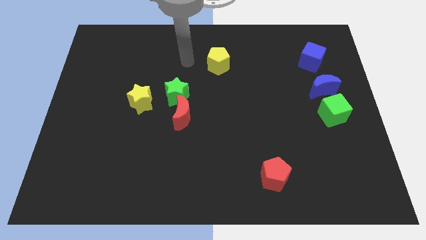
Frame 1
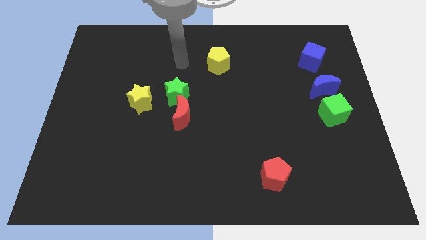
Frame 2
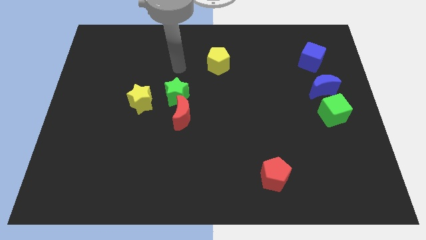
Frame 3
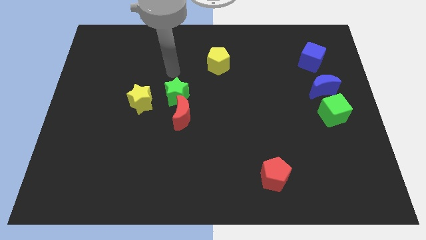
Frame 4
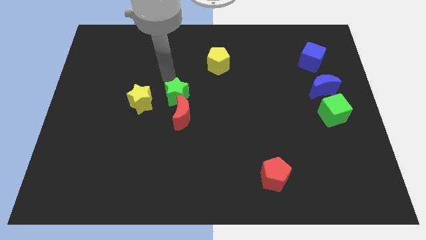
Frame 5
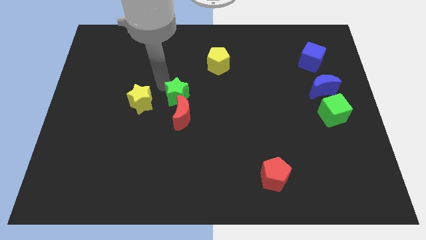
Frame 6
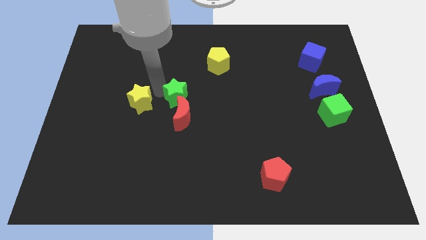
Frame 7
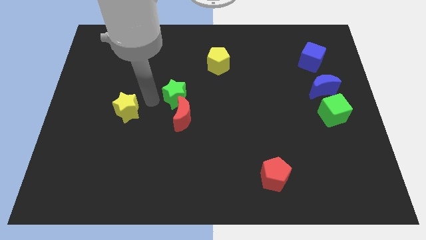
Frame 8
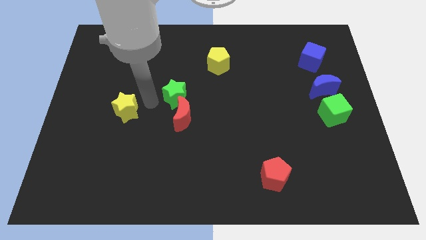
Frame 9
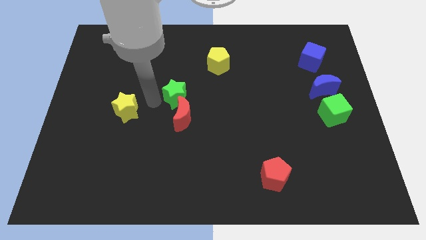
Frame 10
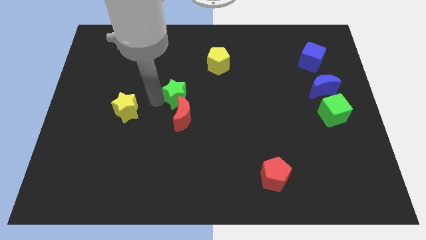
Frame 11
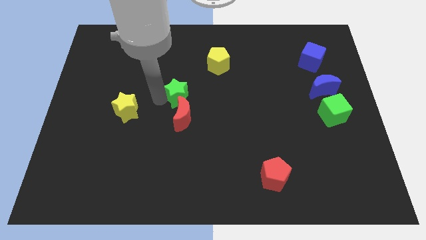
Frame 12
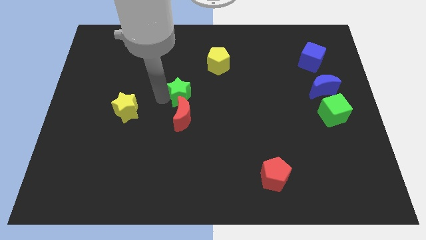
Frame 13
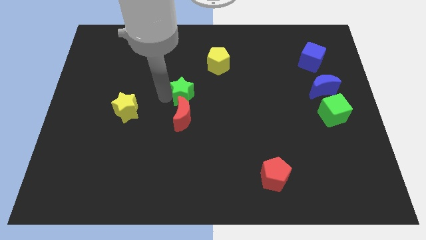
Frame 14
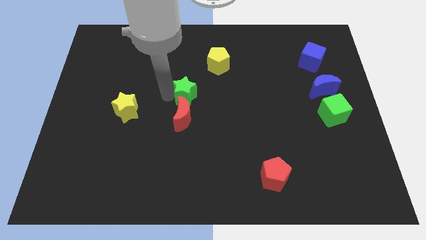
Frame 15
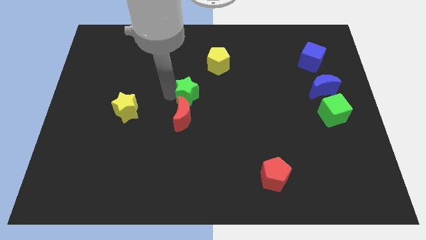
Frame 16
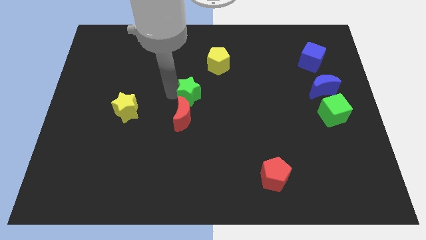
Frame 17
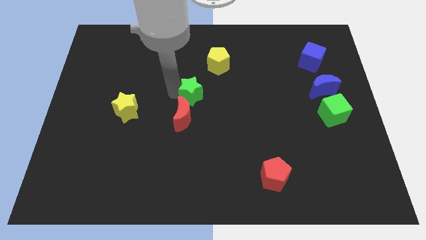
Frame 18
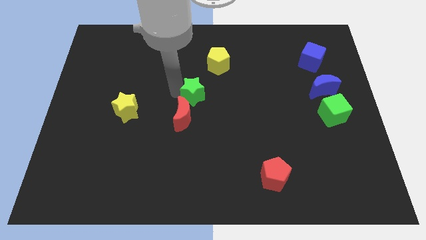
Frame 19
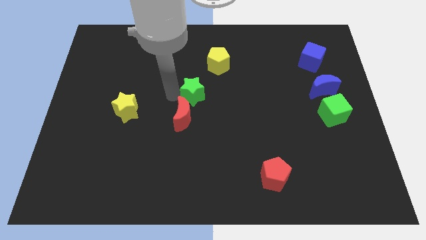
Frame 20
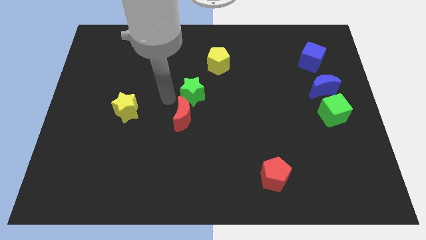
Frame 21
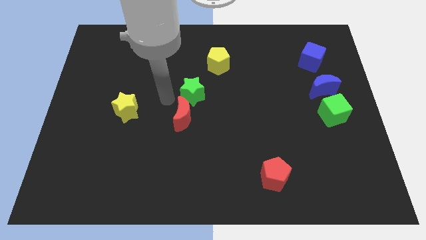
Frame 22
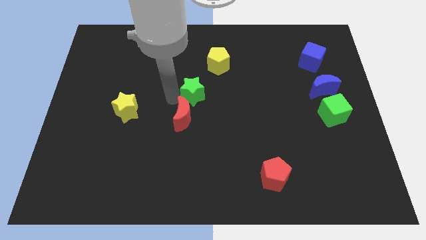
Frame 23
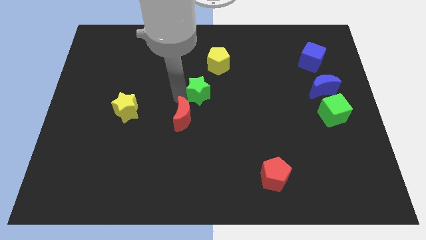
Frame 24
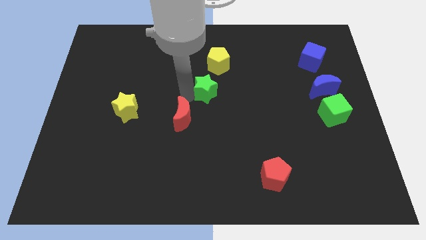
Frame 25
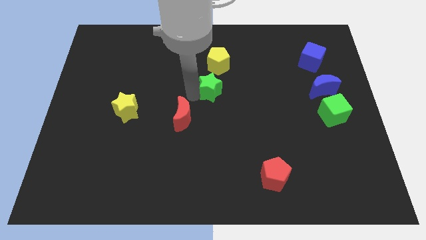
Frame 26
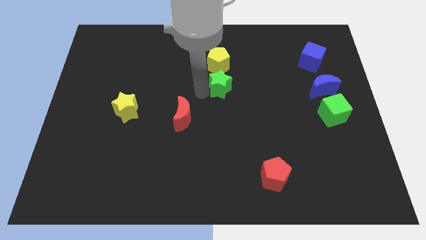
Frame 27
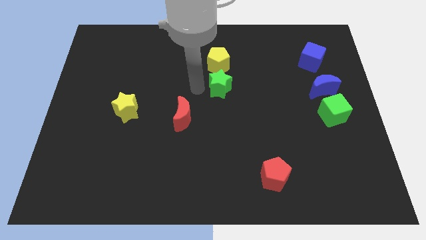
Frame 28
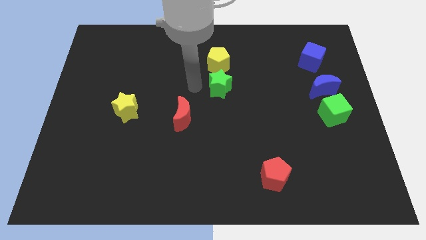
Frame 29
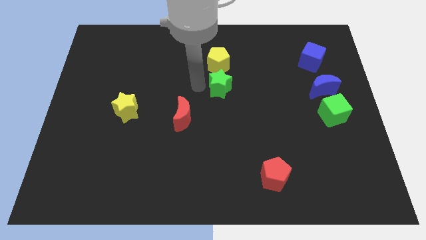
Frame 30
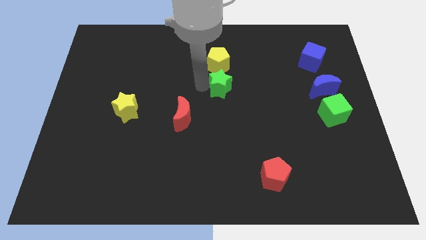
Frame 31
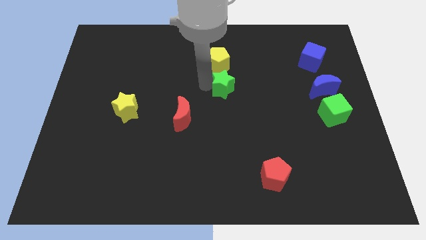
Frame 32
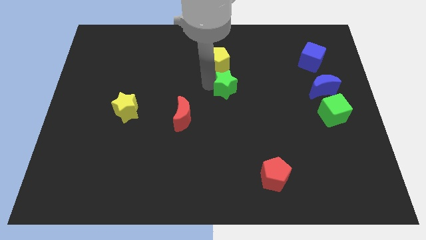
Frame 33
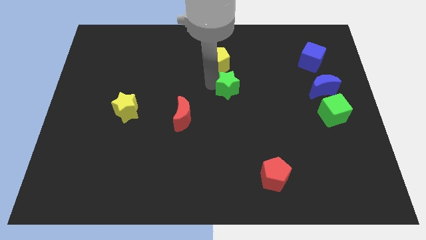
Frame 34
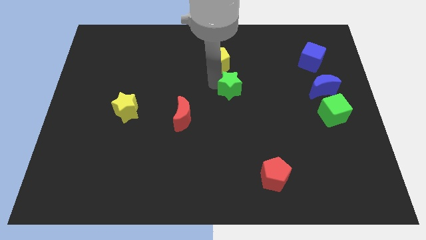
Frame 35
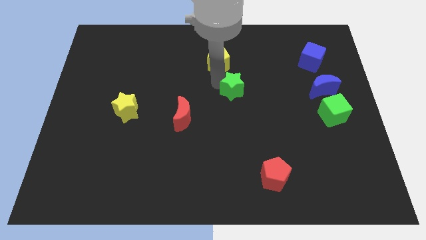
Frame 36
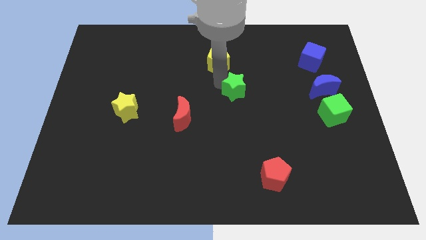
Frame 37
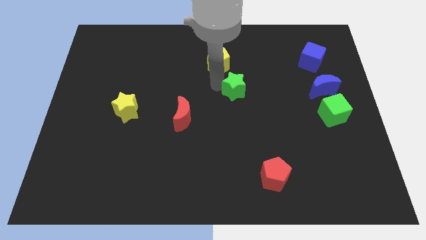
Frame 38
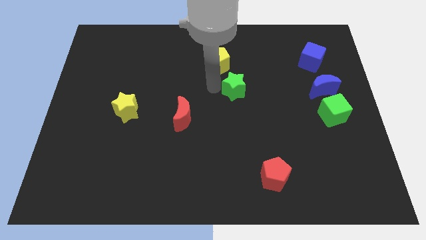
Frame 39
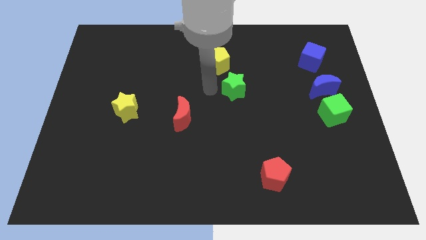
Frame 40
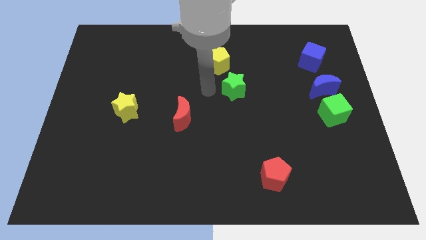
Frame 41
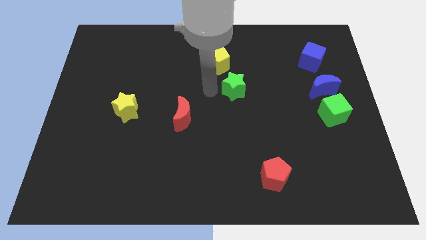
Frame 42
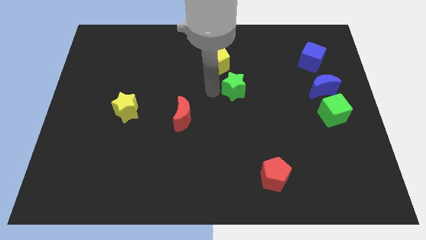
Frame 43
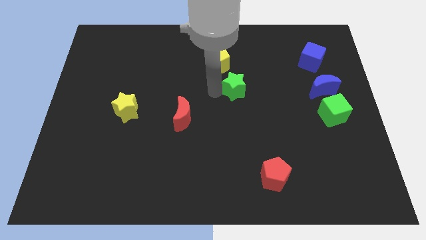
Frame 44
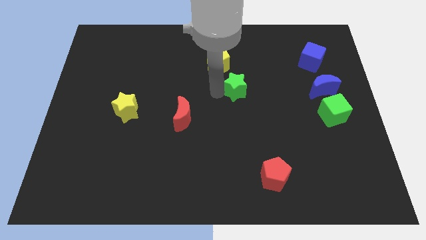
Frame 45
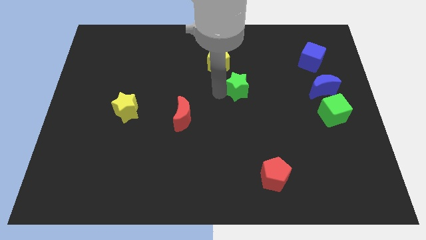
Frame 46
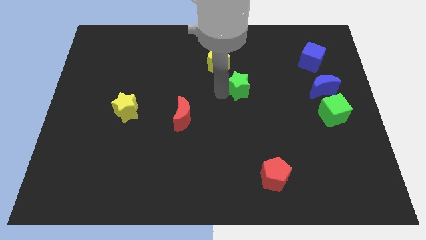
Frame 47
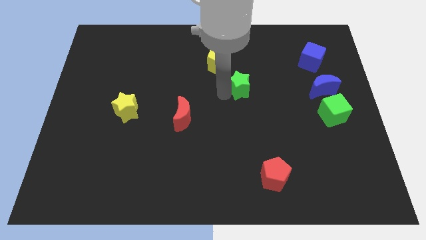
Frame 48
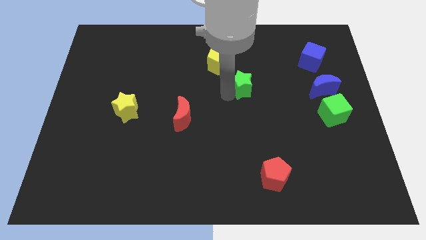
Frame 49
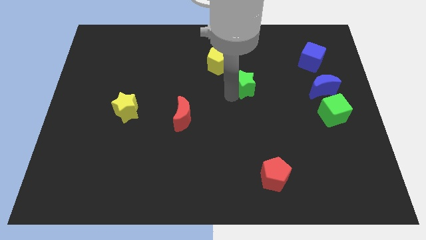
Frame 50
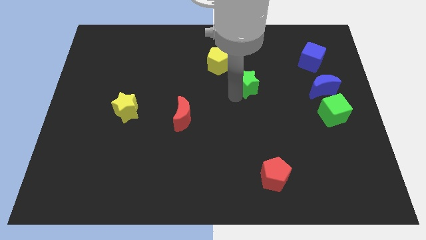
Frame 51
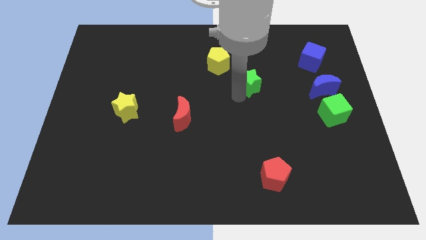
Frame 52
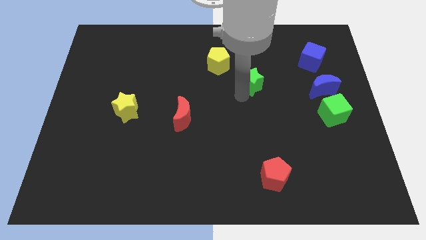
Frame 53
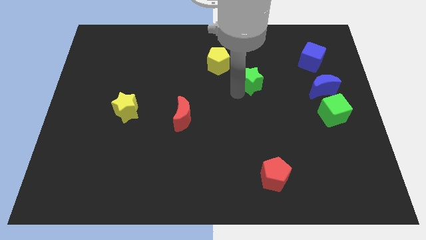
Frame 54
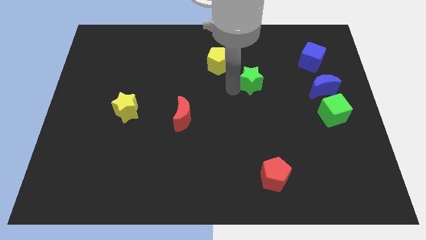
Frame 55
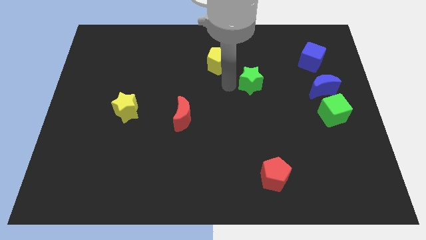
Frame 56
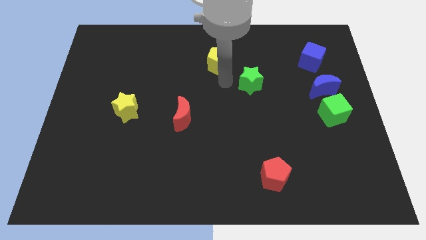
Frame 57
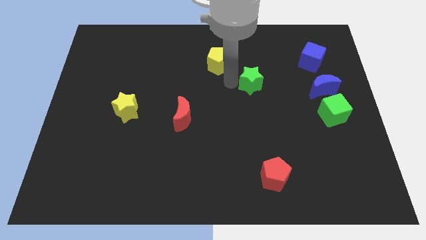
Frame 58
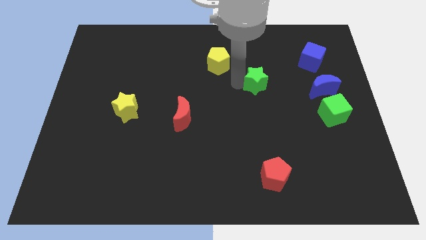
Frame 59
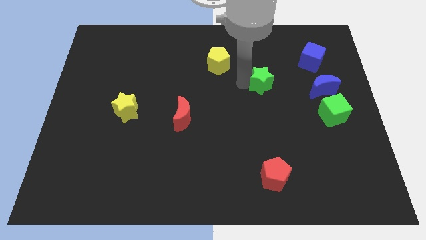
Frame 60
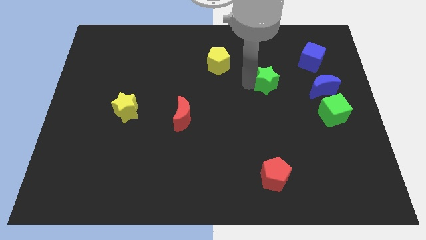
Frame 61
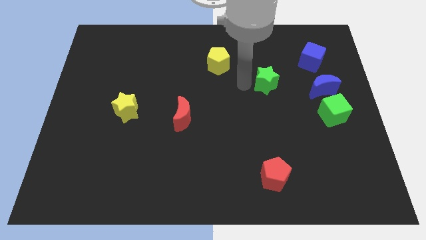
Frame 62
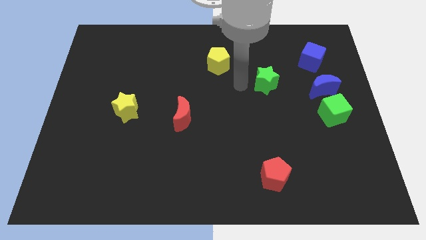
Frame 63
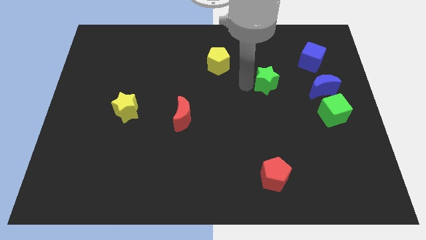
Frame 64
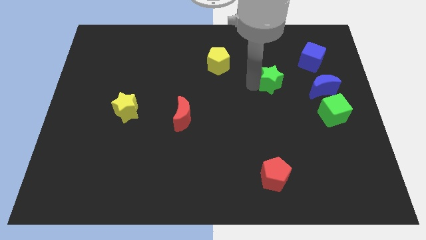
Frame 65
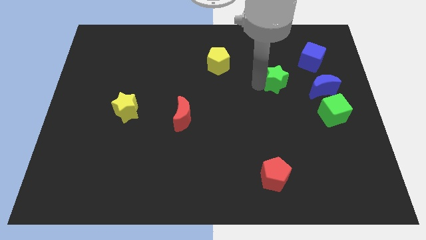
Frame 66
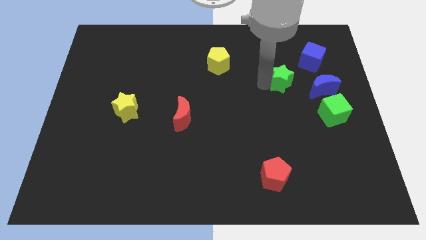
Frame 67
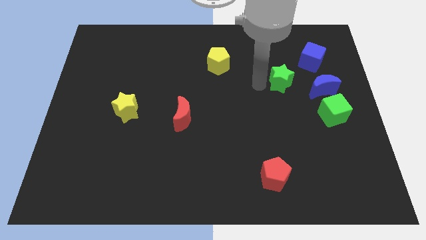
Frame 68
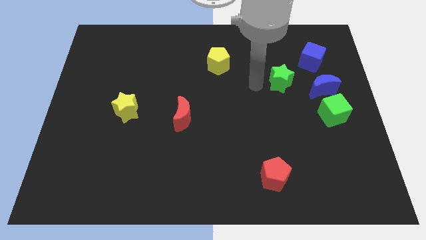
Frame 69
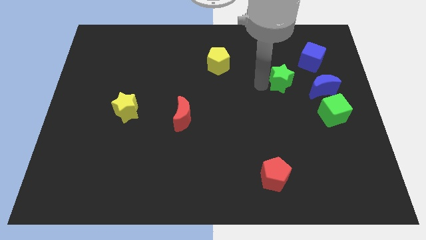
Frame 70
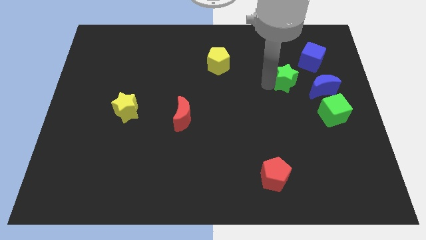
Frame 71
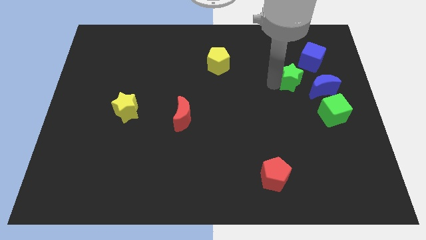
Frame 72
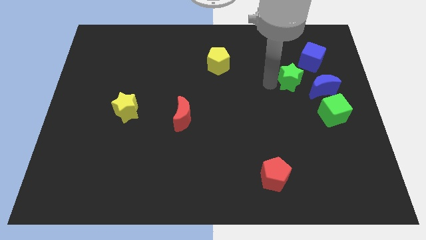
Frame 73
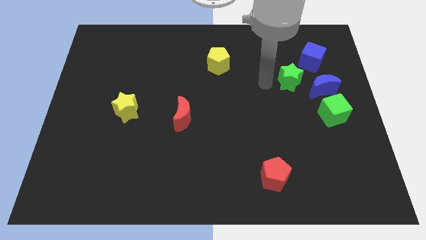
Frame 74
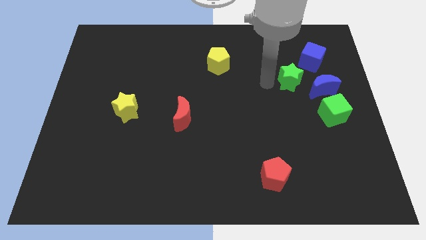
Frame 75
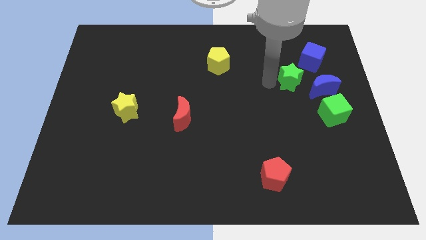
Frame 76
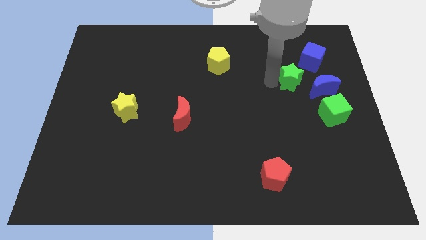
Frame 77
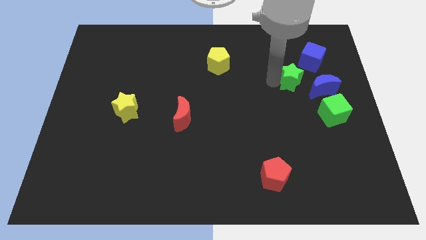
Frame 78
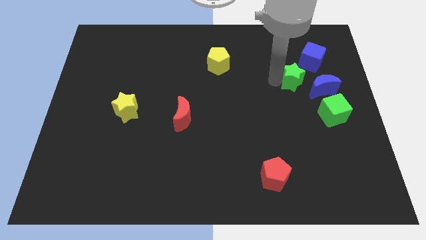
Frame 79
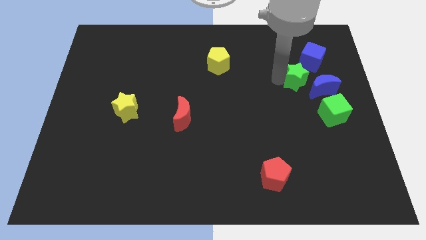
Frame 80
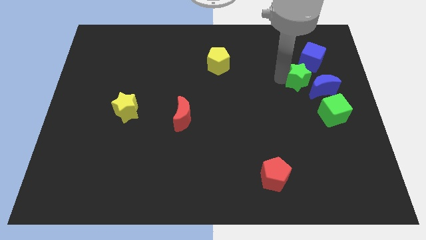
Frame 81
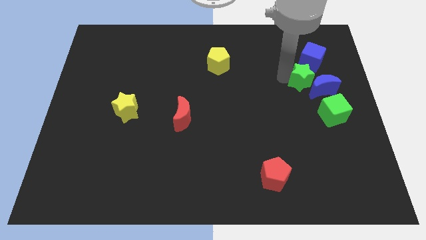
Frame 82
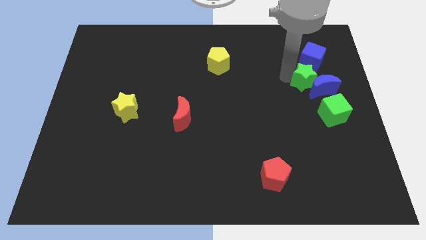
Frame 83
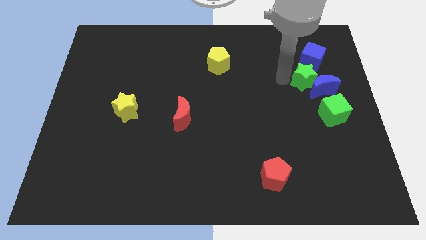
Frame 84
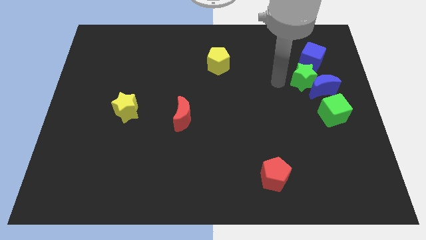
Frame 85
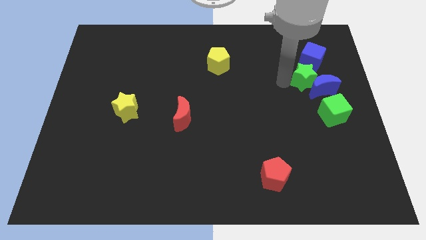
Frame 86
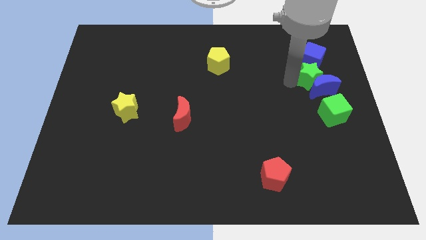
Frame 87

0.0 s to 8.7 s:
move the green star to the top of the green cube

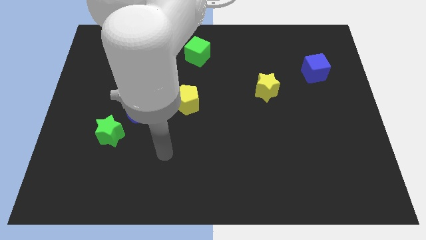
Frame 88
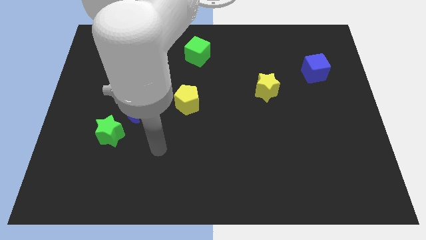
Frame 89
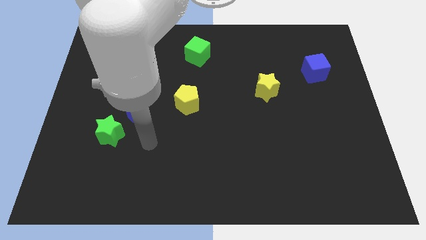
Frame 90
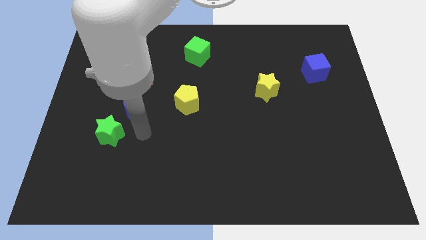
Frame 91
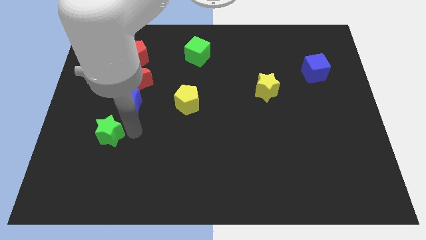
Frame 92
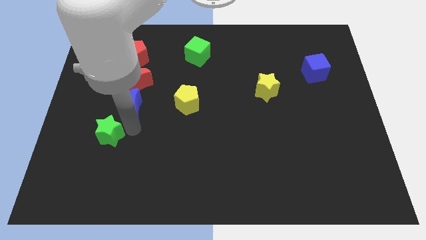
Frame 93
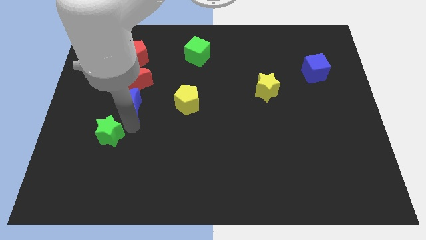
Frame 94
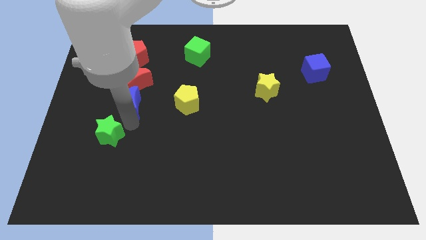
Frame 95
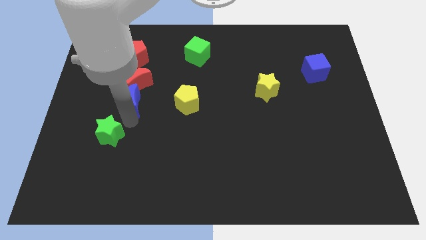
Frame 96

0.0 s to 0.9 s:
slide the blue moon to the bottom of the red pentagon
